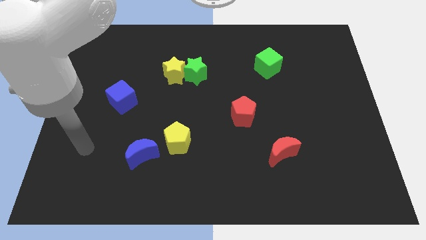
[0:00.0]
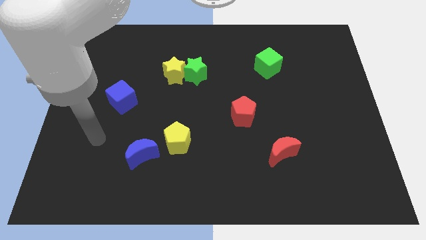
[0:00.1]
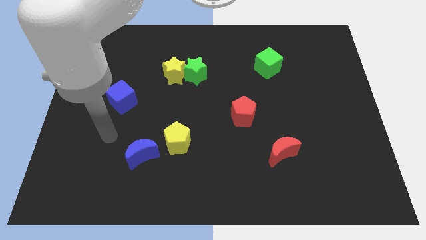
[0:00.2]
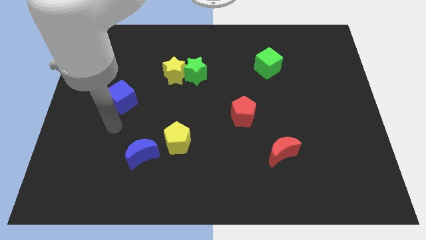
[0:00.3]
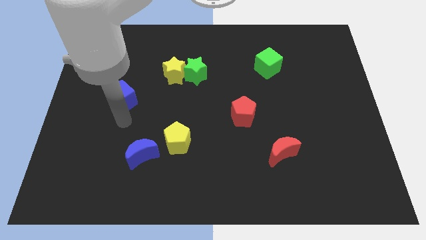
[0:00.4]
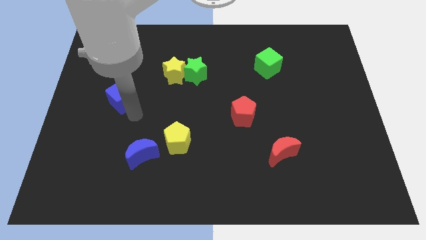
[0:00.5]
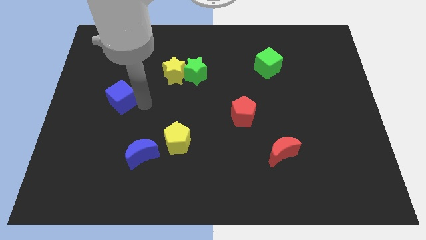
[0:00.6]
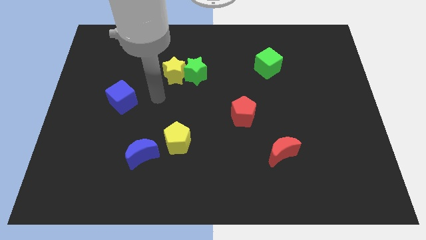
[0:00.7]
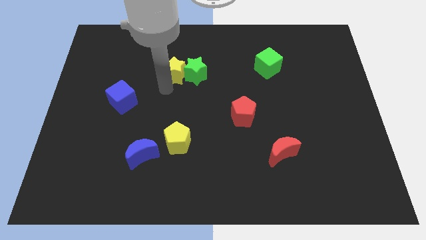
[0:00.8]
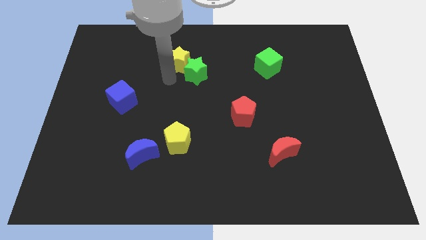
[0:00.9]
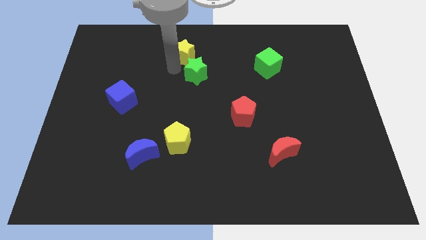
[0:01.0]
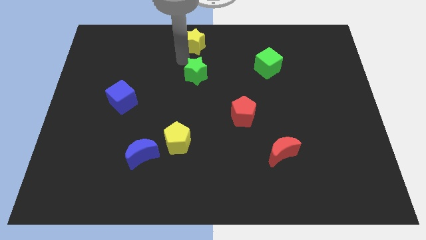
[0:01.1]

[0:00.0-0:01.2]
pull the green star apart from the yellow star

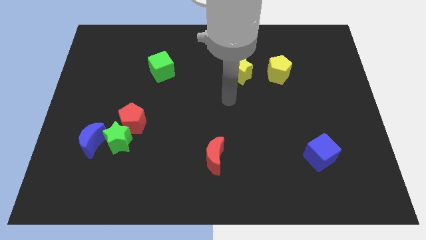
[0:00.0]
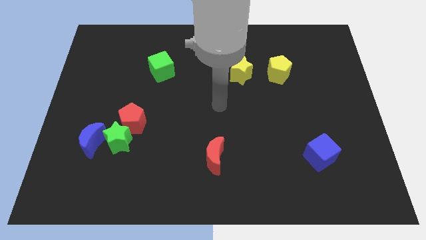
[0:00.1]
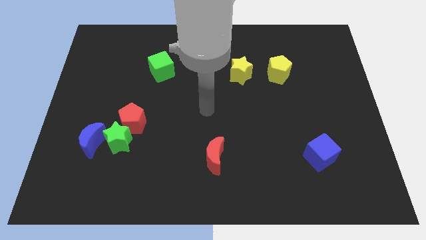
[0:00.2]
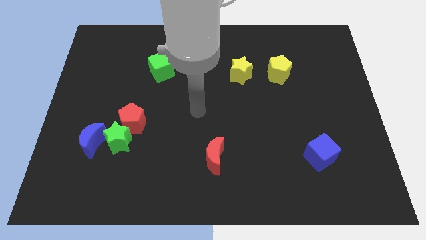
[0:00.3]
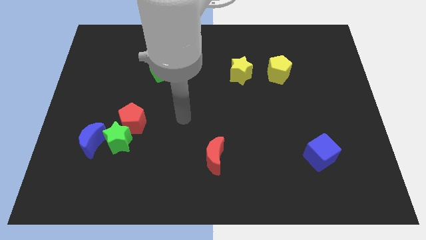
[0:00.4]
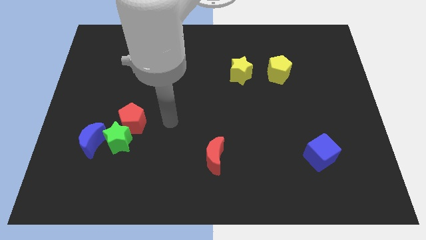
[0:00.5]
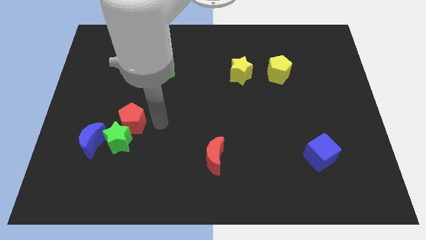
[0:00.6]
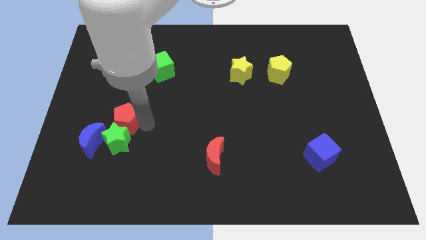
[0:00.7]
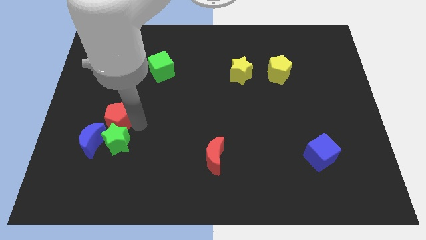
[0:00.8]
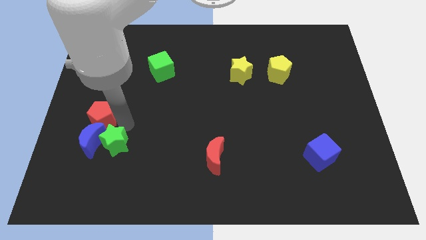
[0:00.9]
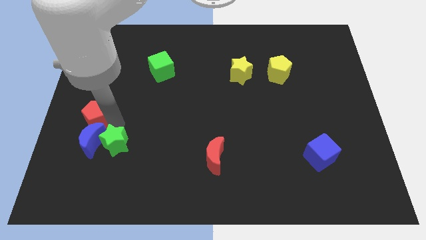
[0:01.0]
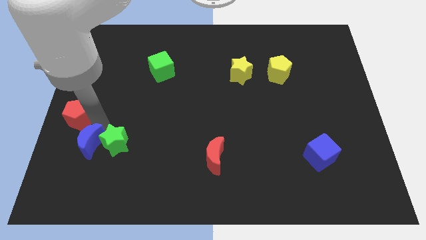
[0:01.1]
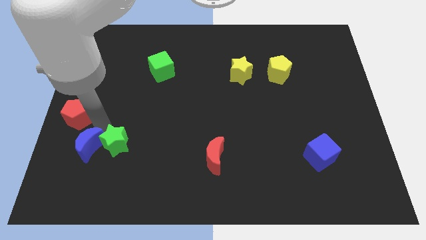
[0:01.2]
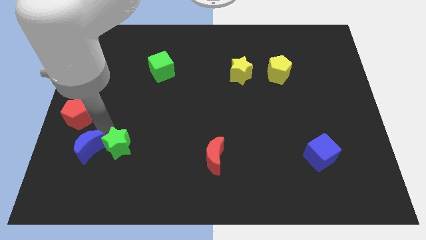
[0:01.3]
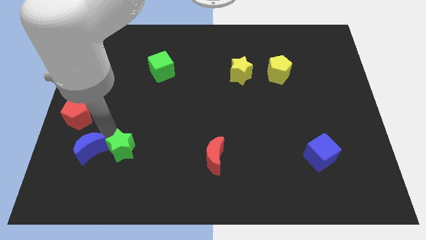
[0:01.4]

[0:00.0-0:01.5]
separate the green star from the red pentagon and blue moon

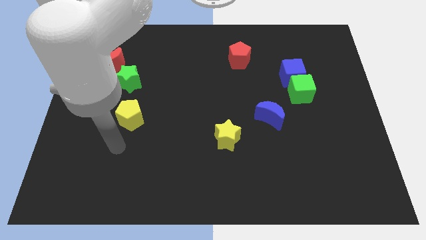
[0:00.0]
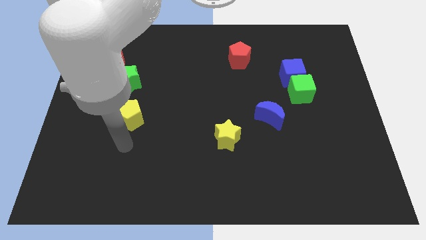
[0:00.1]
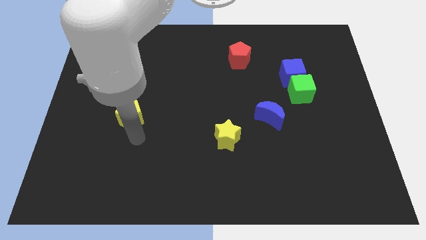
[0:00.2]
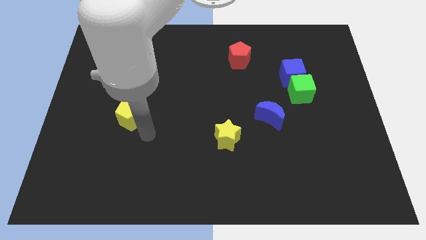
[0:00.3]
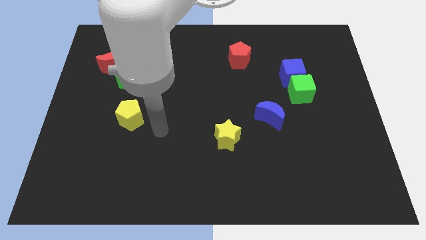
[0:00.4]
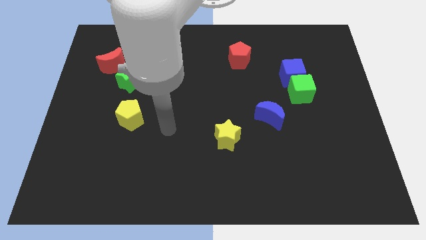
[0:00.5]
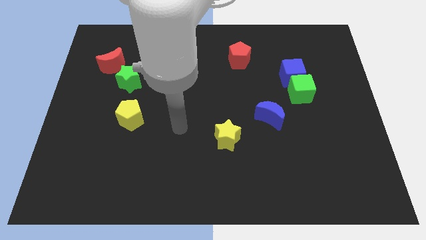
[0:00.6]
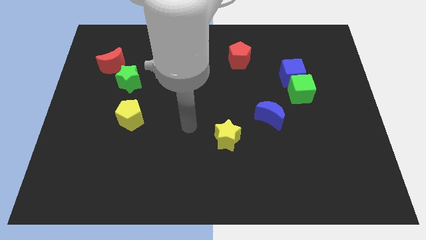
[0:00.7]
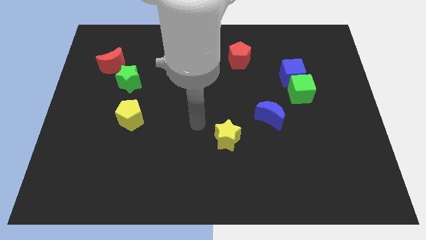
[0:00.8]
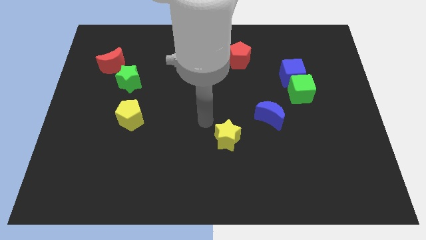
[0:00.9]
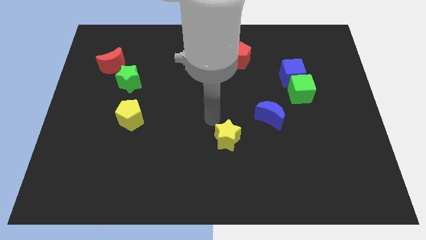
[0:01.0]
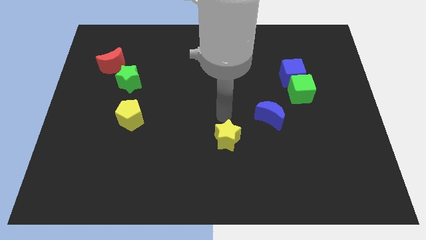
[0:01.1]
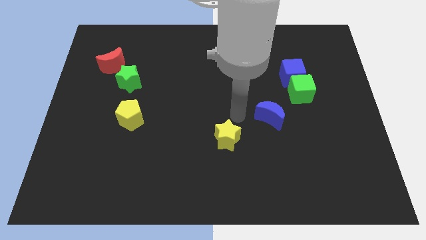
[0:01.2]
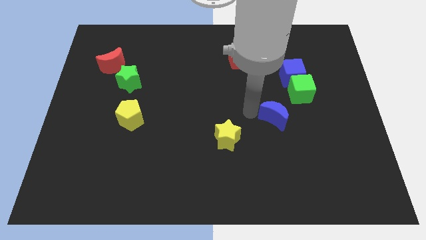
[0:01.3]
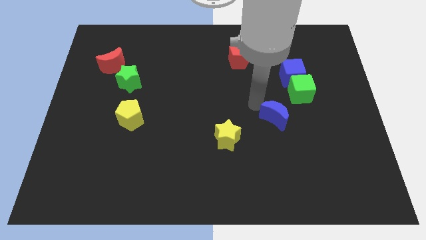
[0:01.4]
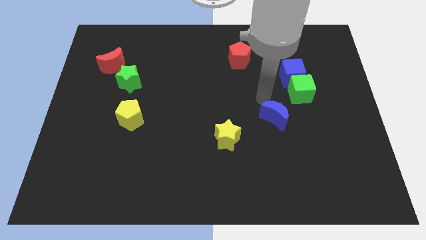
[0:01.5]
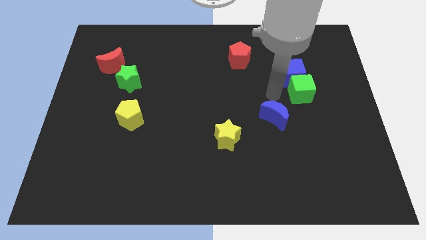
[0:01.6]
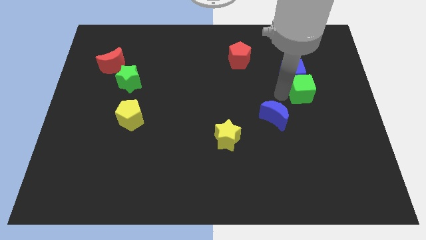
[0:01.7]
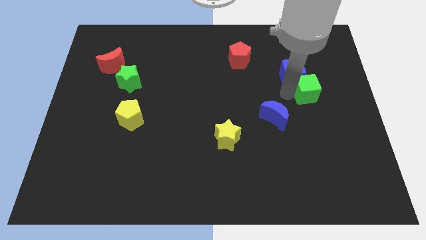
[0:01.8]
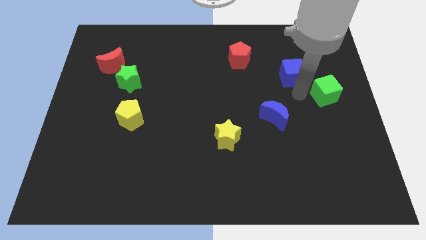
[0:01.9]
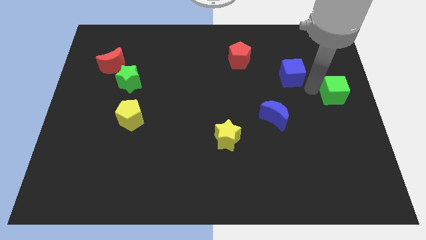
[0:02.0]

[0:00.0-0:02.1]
pull the blue cube apart from the green cube

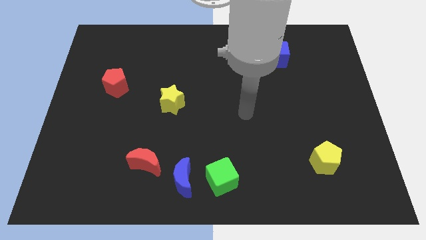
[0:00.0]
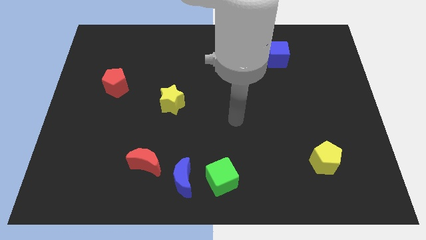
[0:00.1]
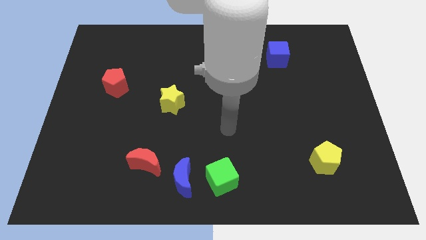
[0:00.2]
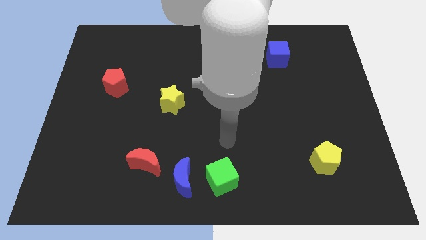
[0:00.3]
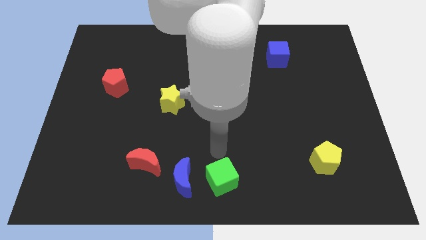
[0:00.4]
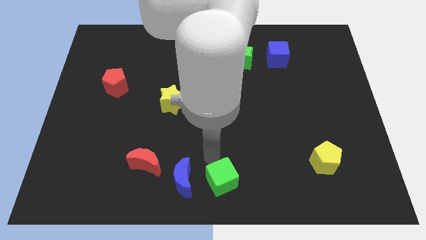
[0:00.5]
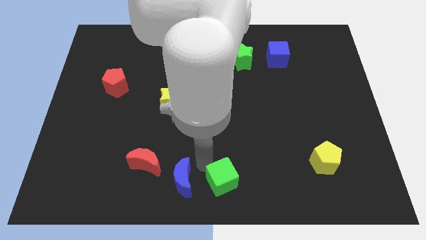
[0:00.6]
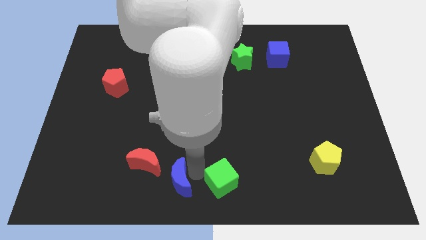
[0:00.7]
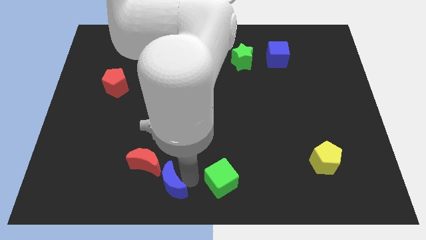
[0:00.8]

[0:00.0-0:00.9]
pull the green cube apart from the blue moon

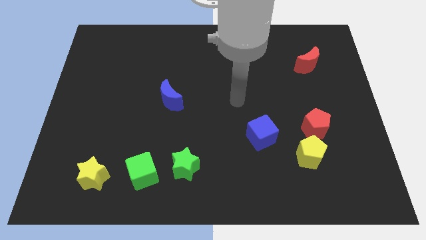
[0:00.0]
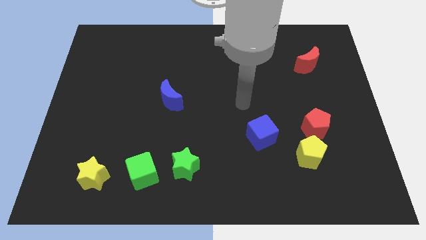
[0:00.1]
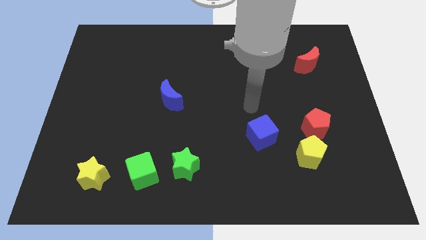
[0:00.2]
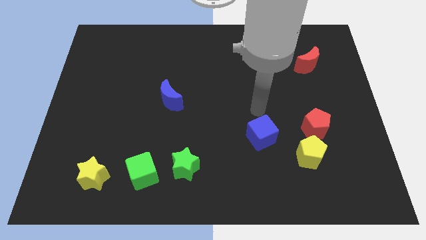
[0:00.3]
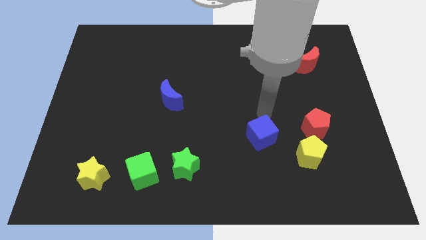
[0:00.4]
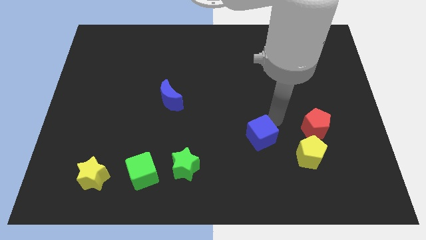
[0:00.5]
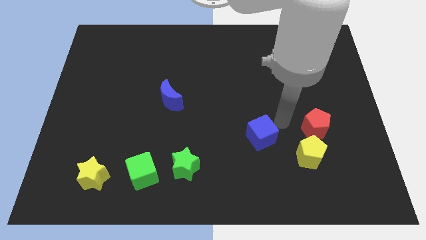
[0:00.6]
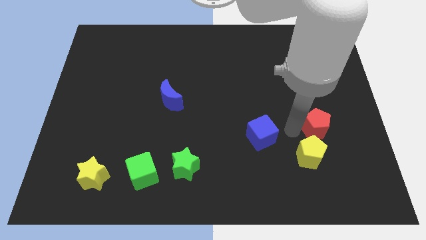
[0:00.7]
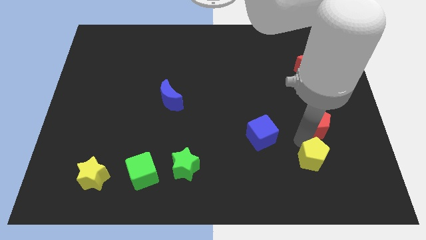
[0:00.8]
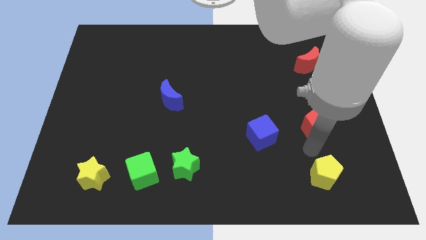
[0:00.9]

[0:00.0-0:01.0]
move the red pentagon away from the yellow pentagon

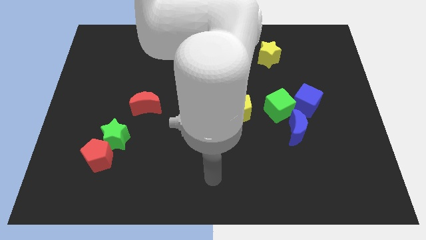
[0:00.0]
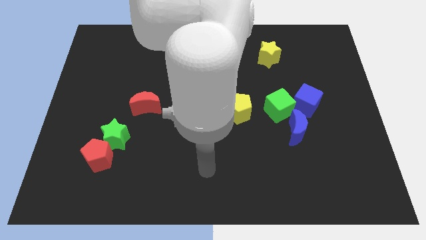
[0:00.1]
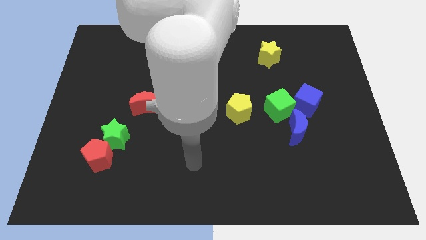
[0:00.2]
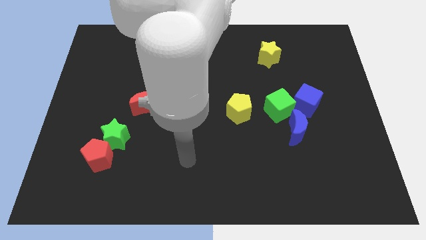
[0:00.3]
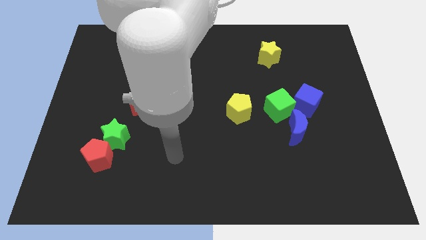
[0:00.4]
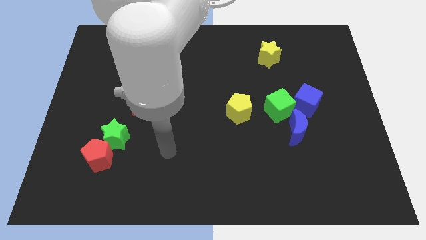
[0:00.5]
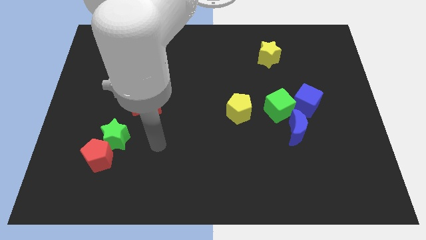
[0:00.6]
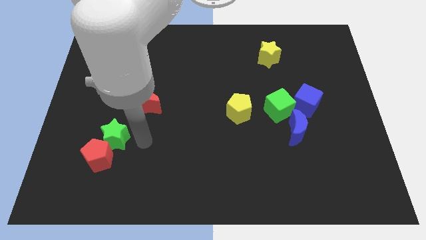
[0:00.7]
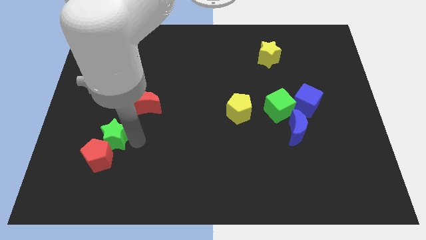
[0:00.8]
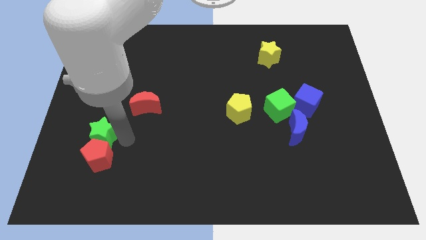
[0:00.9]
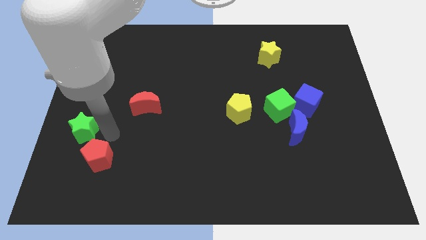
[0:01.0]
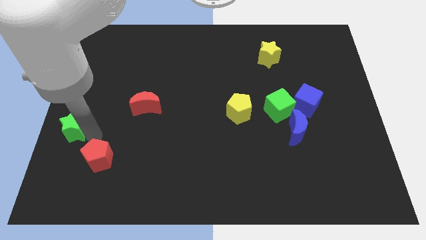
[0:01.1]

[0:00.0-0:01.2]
move the red pentagon away from the green star

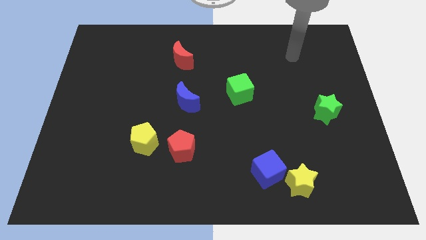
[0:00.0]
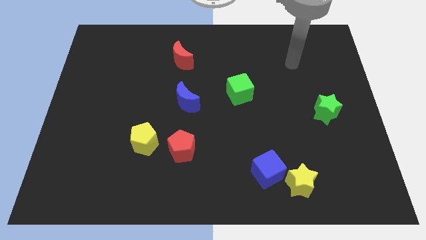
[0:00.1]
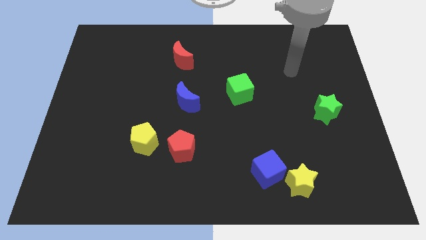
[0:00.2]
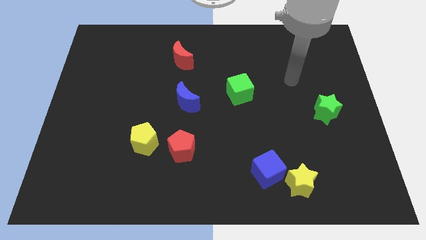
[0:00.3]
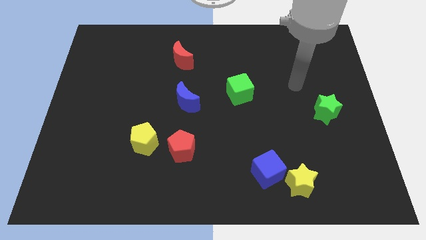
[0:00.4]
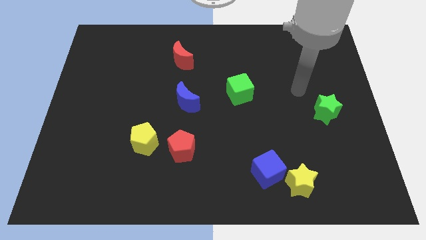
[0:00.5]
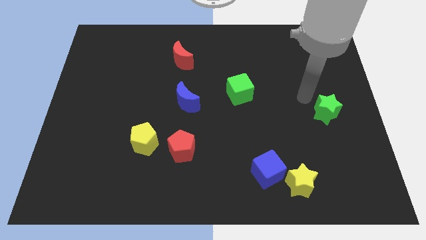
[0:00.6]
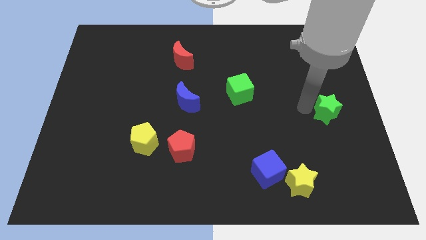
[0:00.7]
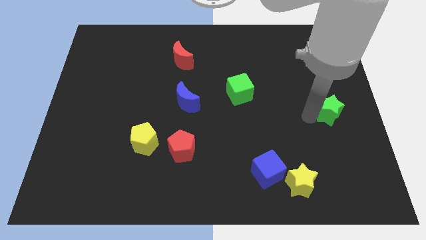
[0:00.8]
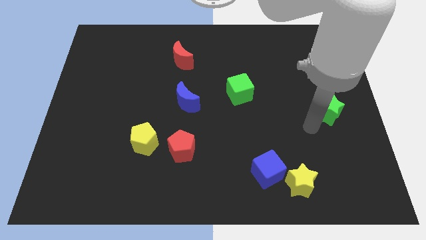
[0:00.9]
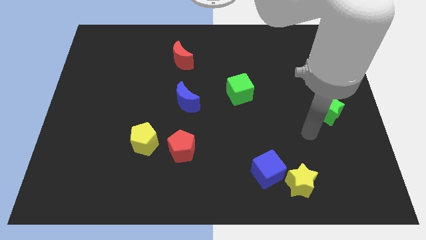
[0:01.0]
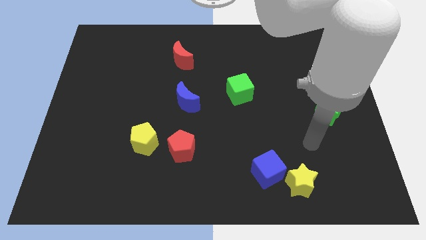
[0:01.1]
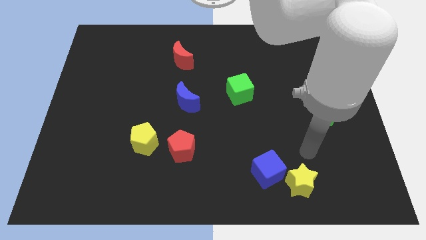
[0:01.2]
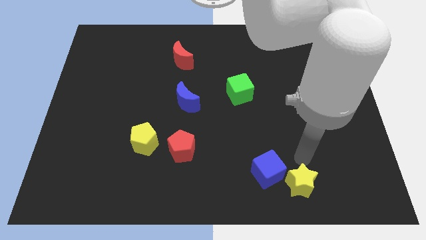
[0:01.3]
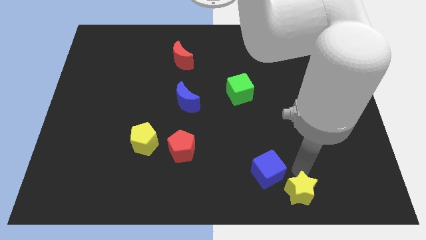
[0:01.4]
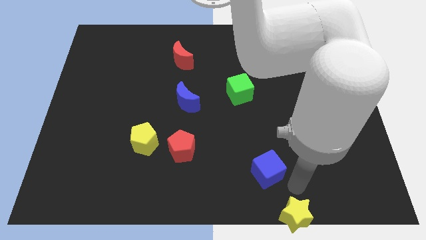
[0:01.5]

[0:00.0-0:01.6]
move the blue cube away from the yellow star
